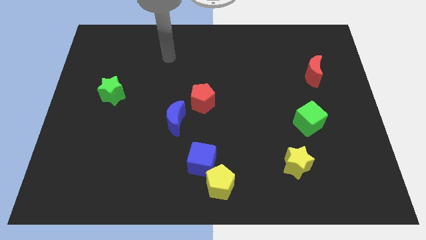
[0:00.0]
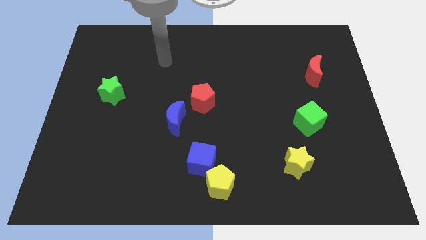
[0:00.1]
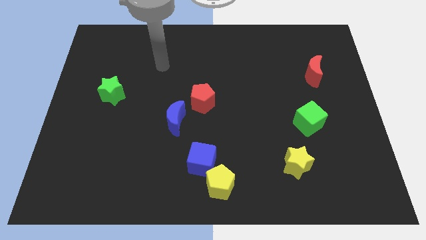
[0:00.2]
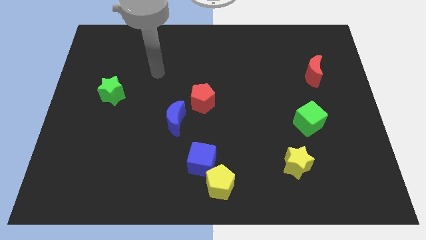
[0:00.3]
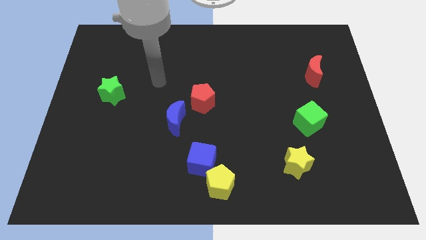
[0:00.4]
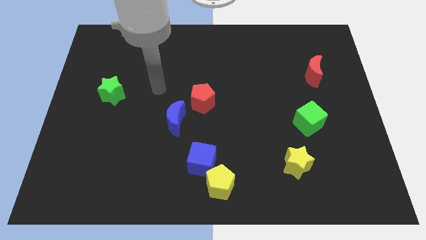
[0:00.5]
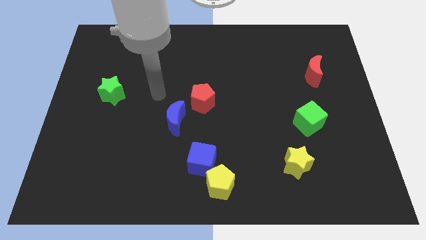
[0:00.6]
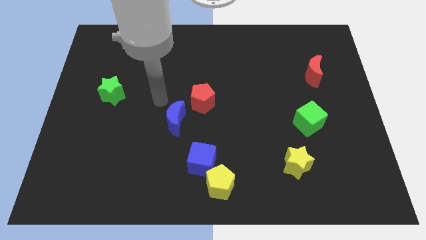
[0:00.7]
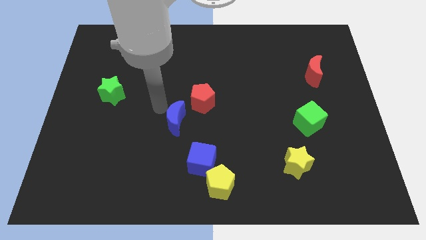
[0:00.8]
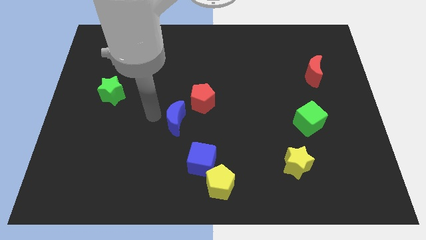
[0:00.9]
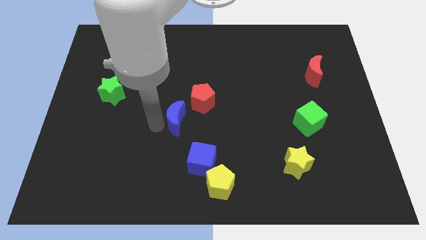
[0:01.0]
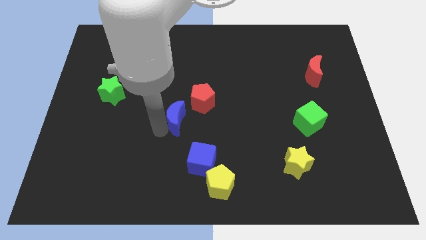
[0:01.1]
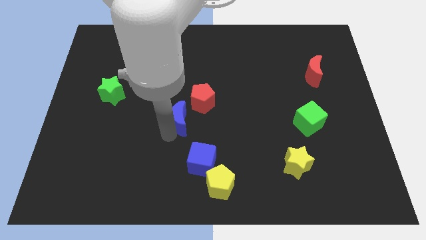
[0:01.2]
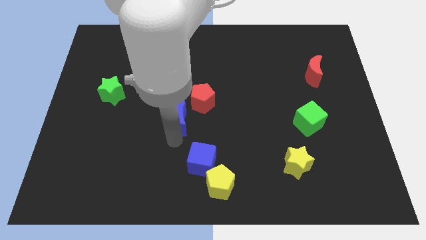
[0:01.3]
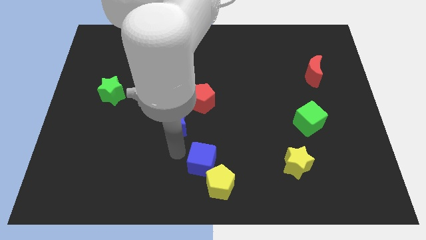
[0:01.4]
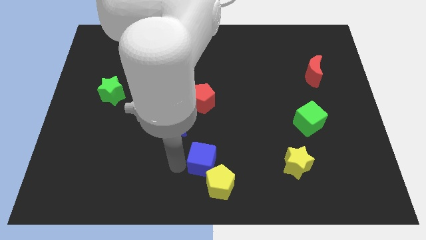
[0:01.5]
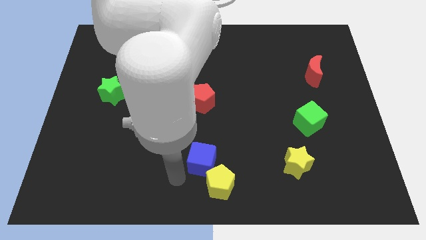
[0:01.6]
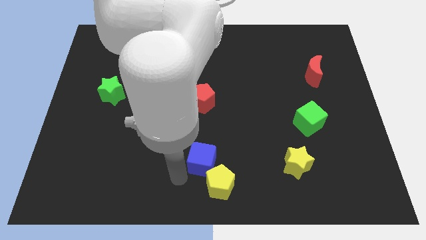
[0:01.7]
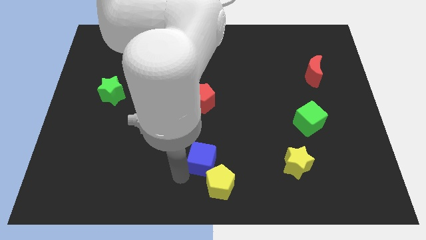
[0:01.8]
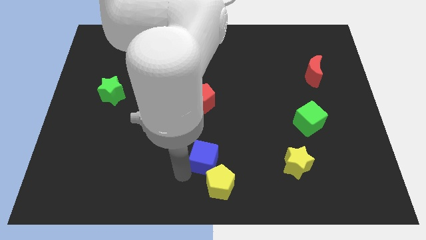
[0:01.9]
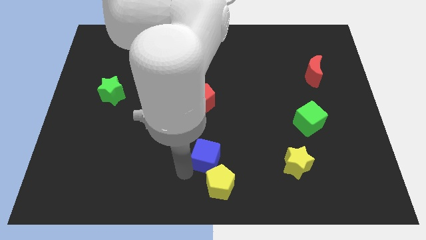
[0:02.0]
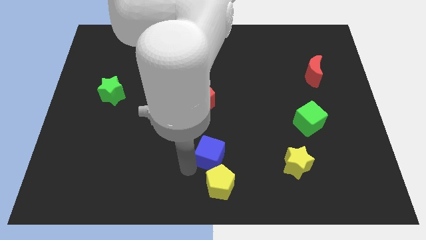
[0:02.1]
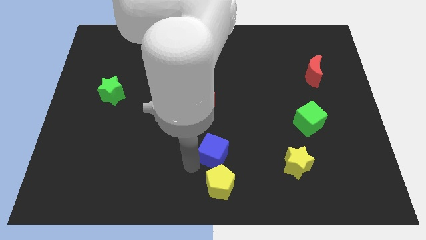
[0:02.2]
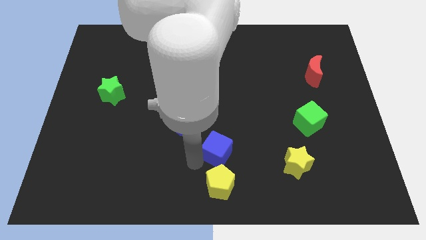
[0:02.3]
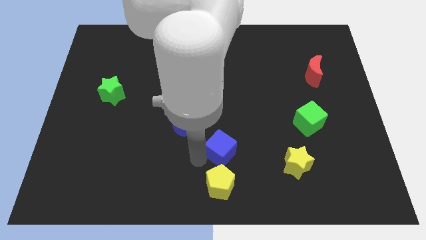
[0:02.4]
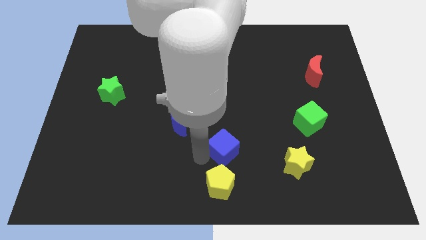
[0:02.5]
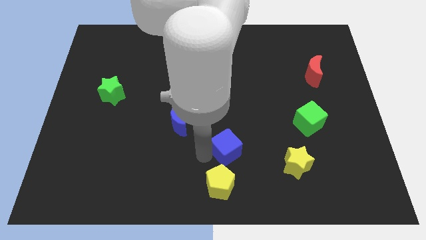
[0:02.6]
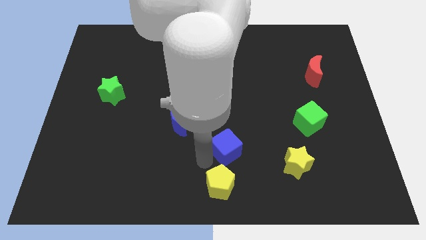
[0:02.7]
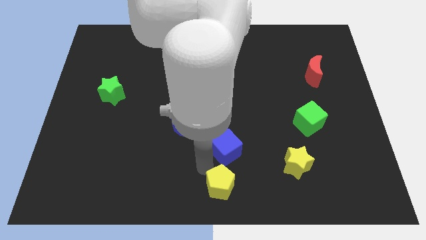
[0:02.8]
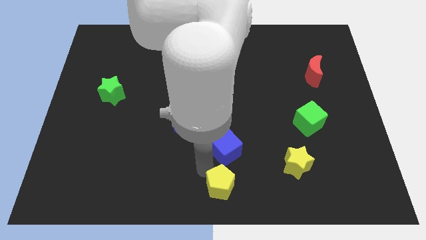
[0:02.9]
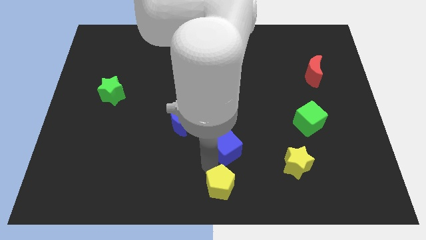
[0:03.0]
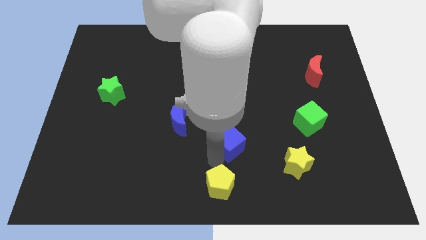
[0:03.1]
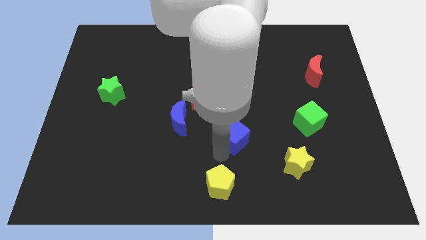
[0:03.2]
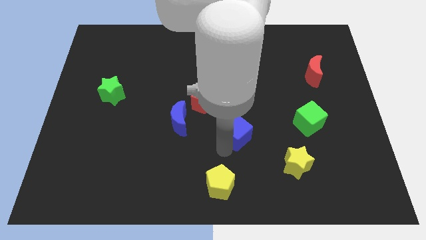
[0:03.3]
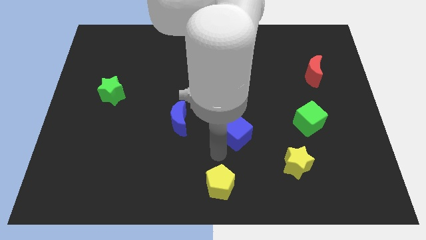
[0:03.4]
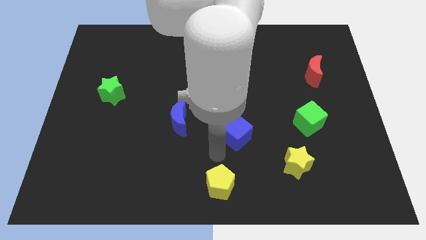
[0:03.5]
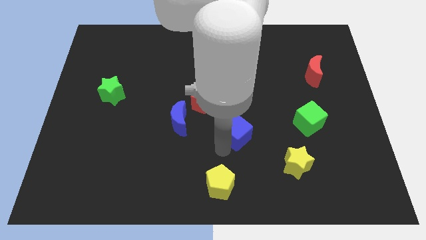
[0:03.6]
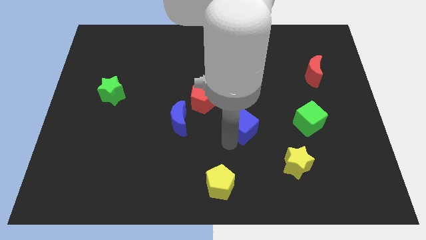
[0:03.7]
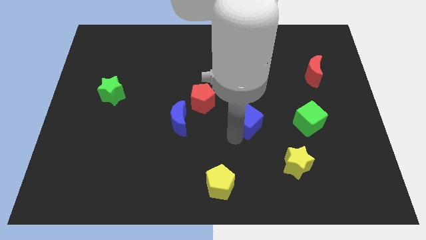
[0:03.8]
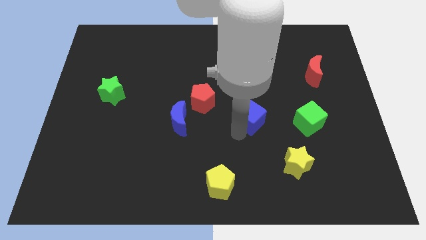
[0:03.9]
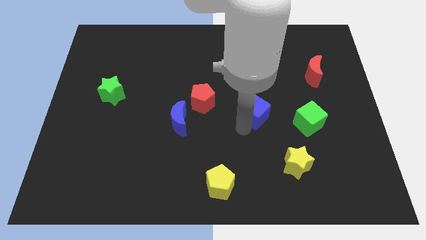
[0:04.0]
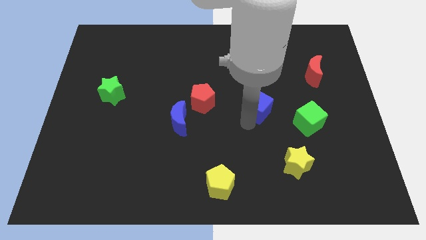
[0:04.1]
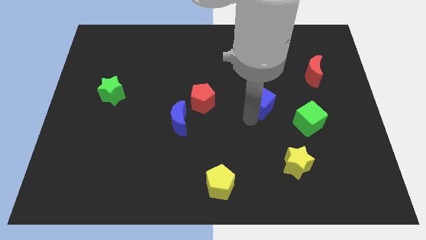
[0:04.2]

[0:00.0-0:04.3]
push the blue cube up and then to the right

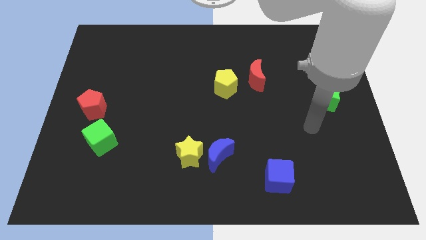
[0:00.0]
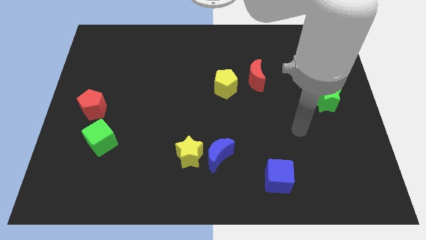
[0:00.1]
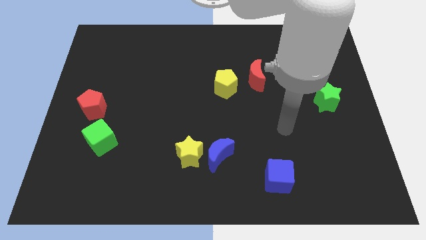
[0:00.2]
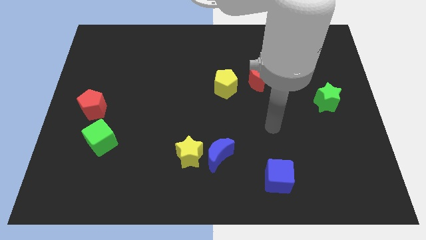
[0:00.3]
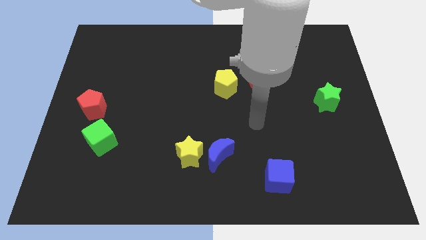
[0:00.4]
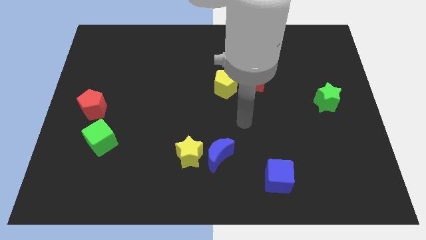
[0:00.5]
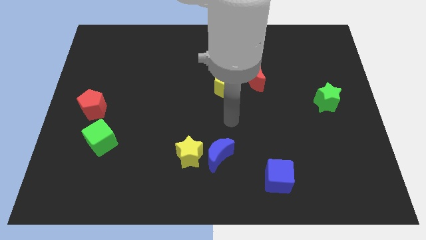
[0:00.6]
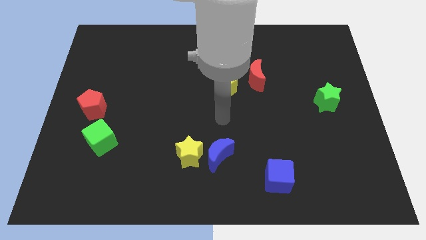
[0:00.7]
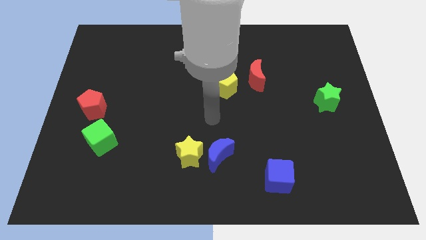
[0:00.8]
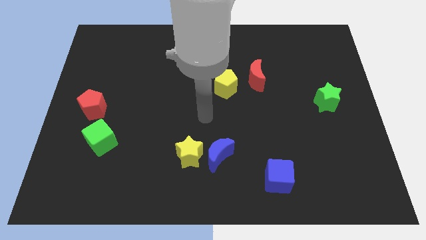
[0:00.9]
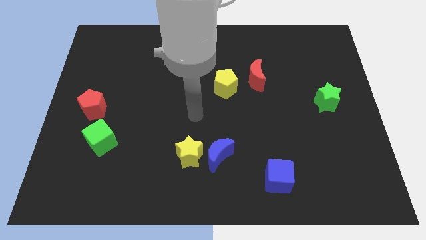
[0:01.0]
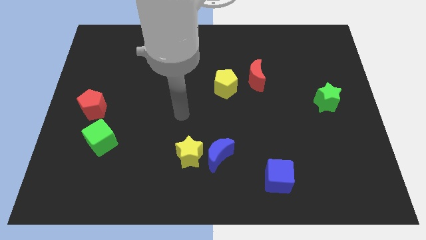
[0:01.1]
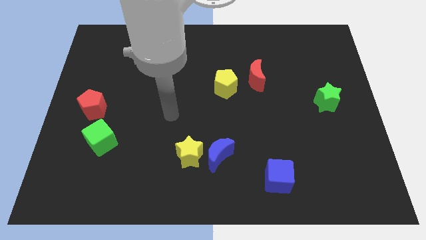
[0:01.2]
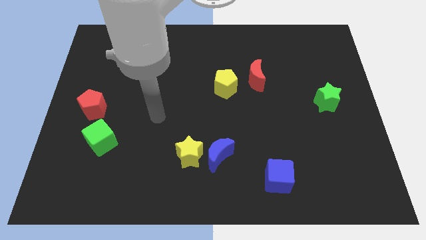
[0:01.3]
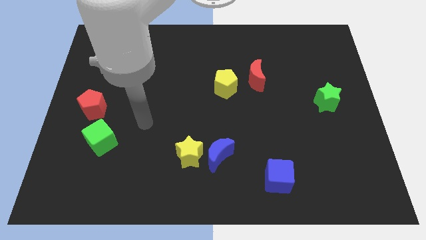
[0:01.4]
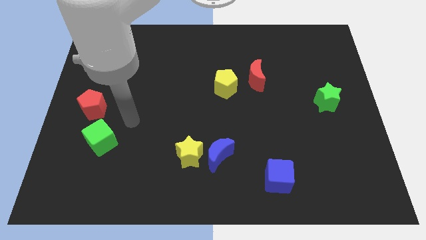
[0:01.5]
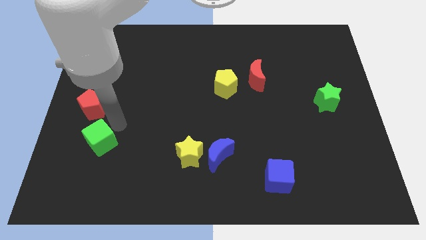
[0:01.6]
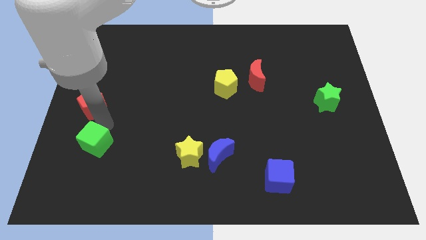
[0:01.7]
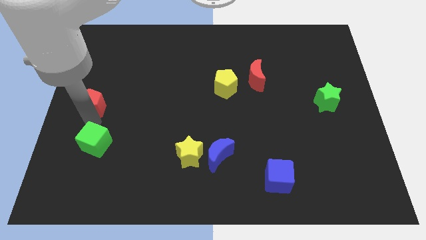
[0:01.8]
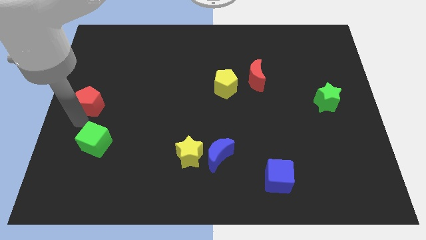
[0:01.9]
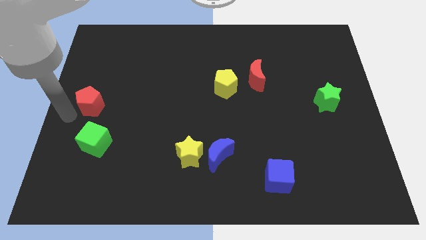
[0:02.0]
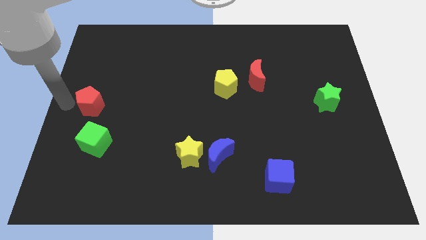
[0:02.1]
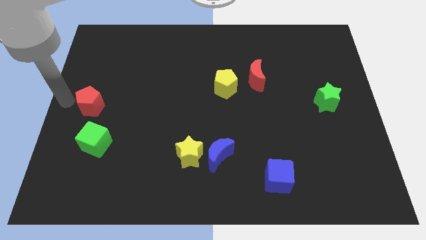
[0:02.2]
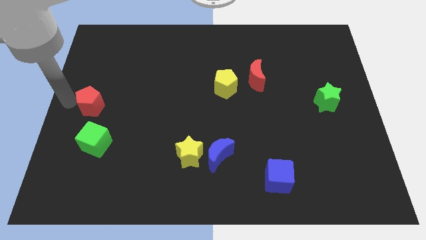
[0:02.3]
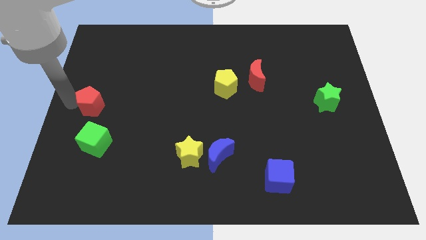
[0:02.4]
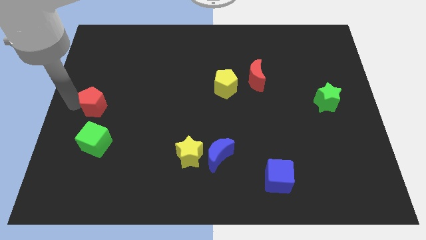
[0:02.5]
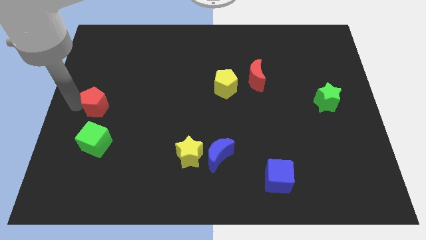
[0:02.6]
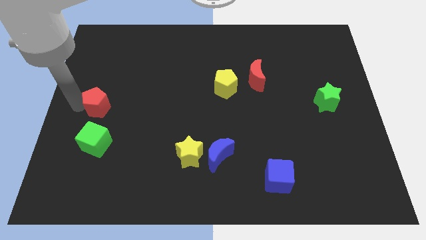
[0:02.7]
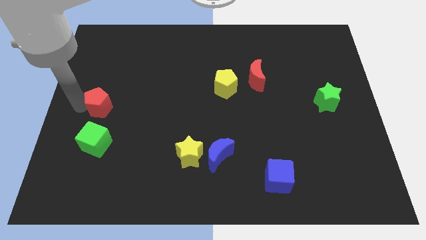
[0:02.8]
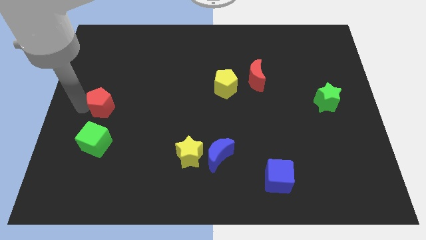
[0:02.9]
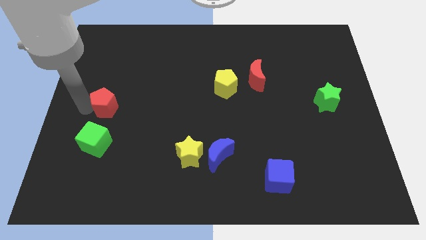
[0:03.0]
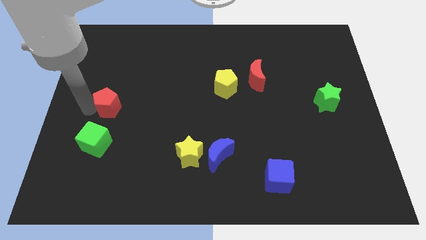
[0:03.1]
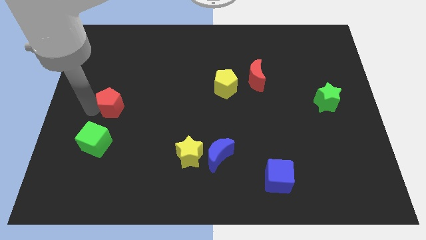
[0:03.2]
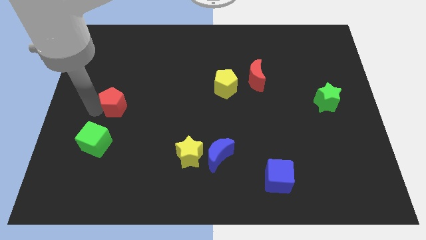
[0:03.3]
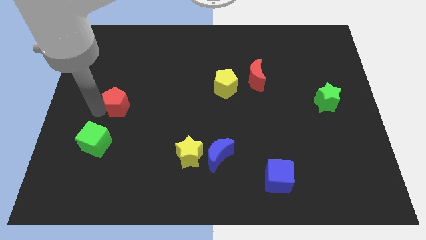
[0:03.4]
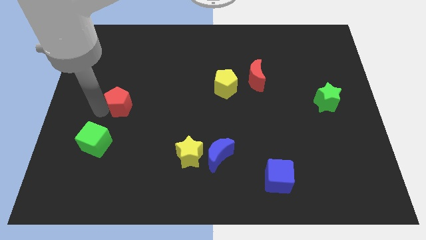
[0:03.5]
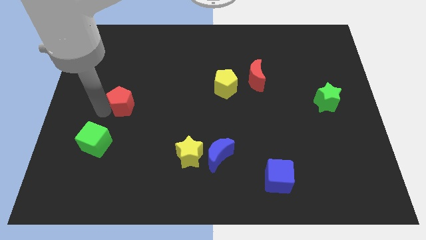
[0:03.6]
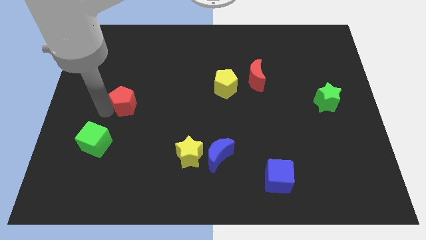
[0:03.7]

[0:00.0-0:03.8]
move the red pentagon right a bit
